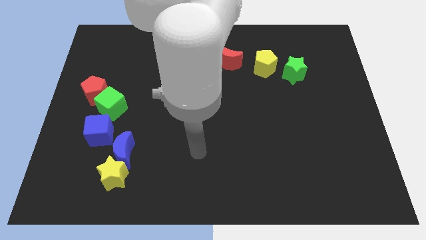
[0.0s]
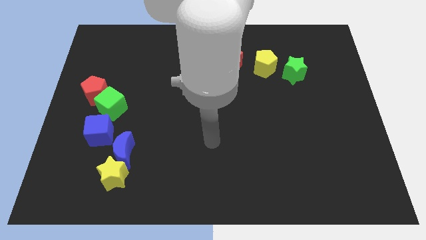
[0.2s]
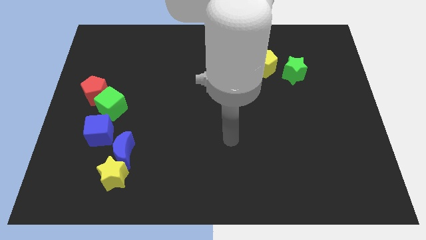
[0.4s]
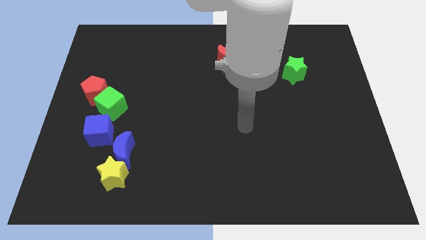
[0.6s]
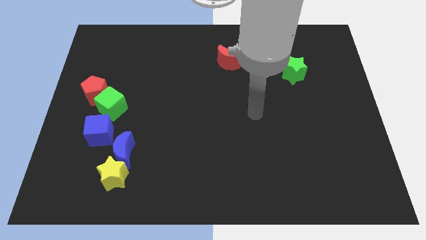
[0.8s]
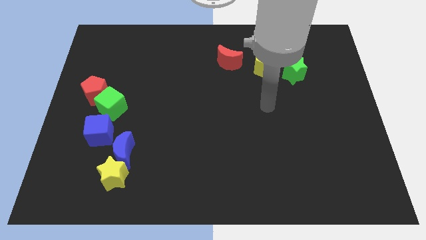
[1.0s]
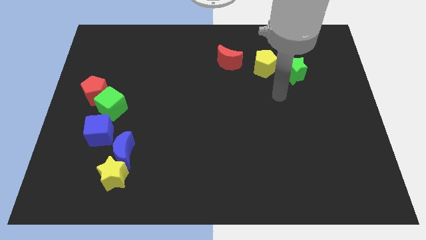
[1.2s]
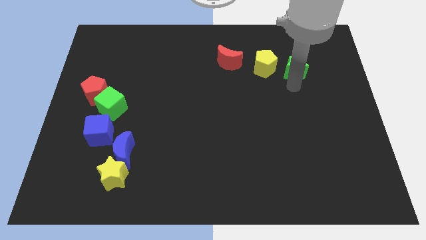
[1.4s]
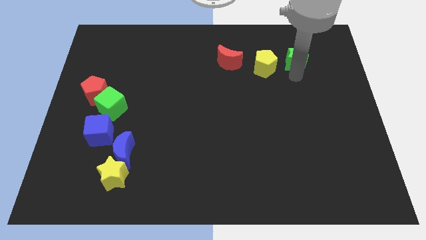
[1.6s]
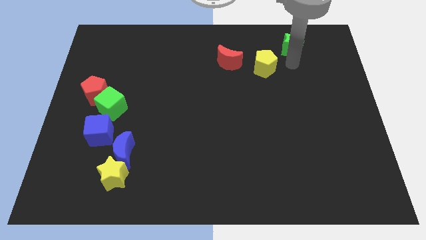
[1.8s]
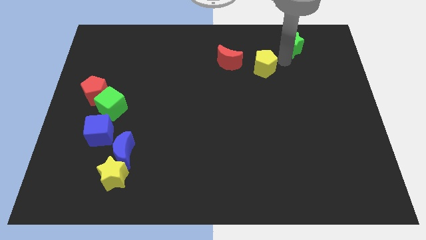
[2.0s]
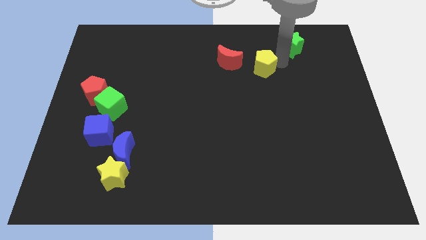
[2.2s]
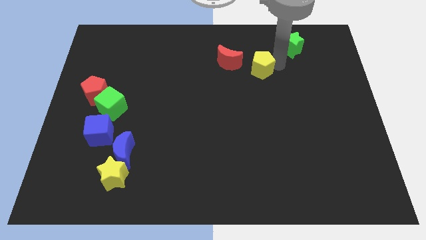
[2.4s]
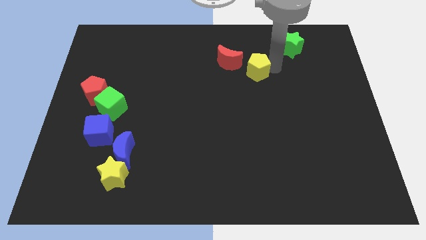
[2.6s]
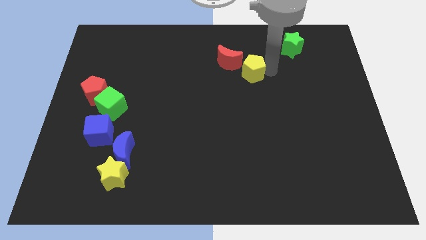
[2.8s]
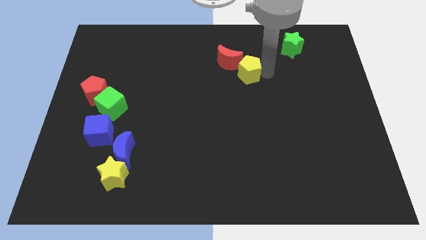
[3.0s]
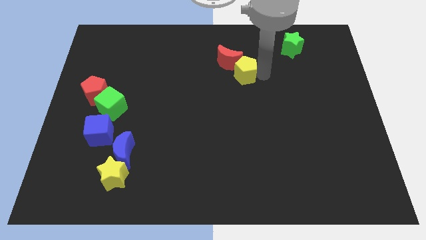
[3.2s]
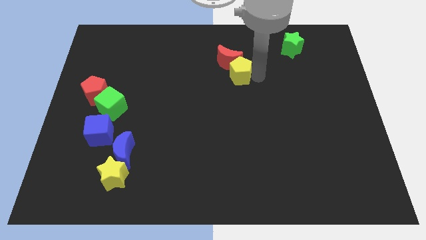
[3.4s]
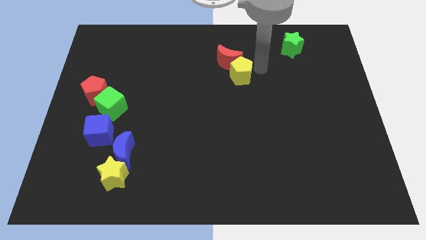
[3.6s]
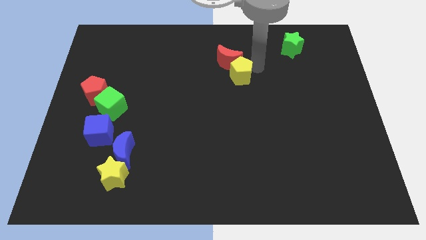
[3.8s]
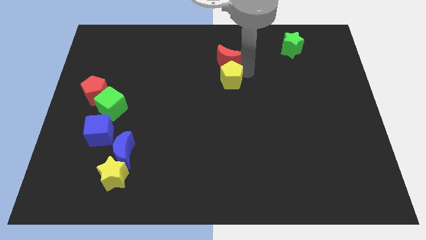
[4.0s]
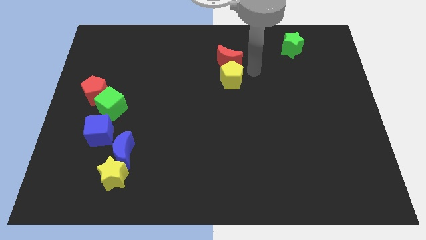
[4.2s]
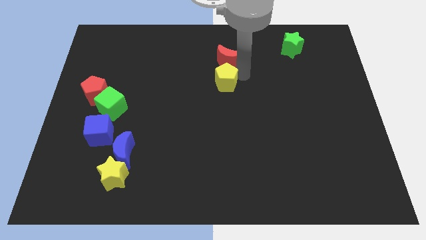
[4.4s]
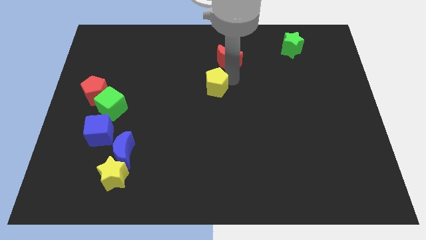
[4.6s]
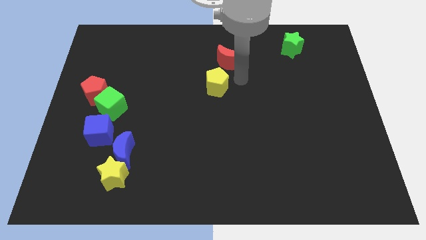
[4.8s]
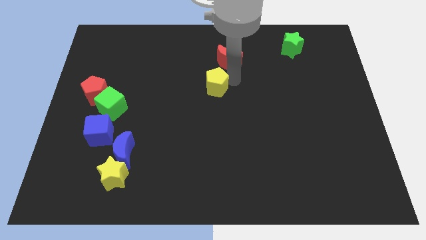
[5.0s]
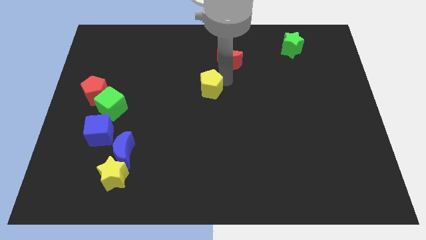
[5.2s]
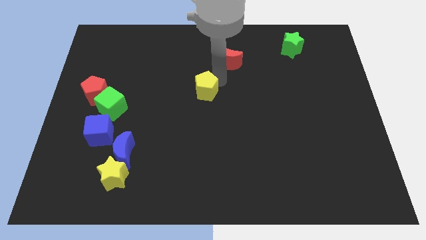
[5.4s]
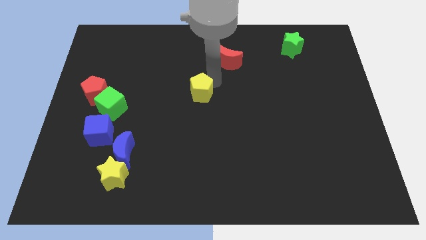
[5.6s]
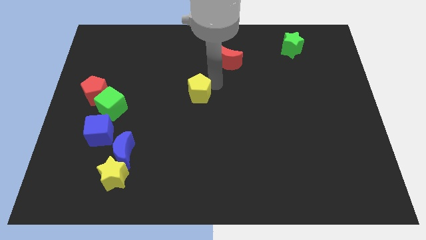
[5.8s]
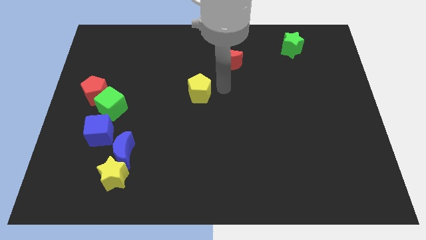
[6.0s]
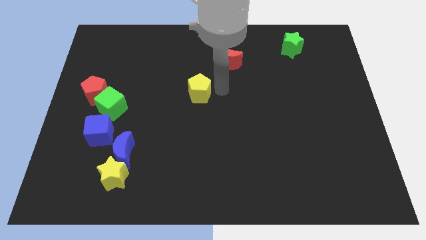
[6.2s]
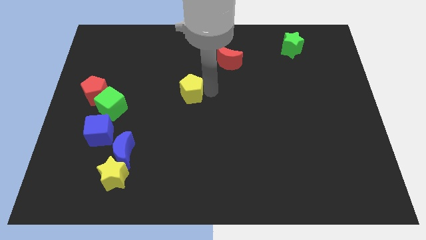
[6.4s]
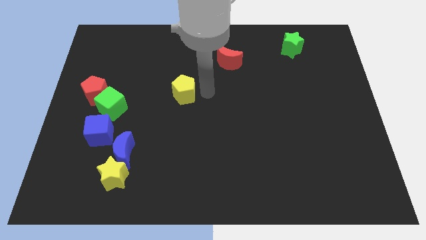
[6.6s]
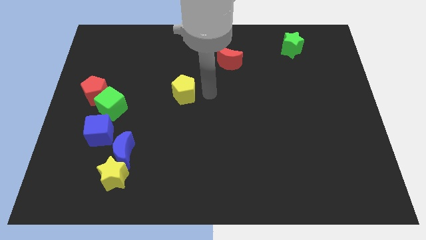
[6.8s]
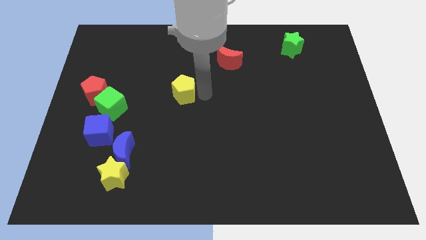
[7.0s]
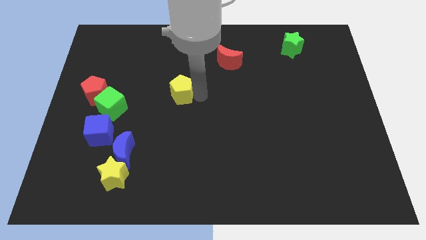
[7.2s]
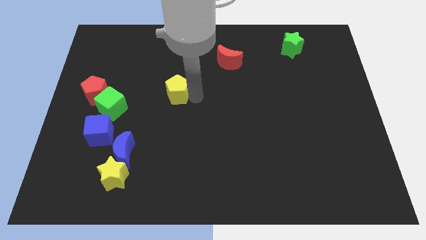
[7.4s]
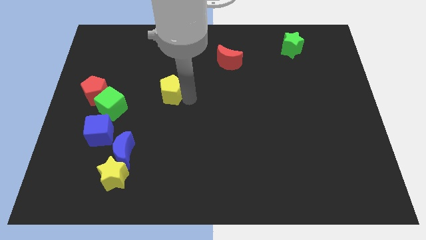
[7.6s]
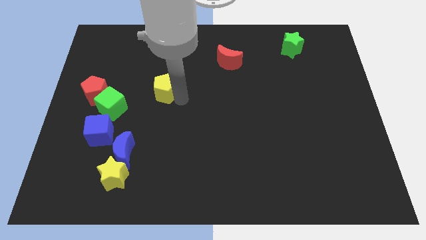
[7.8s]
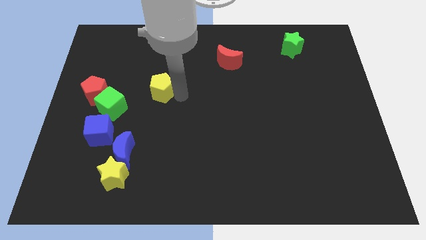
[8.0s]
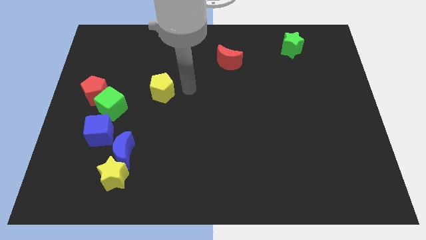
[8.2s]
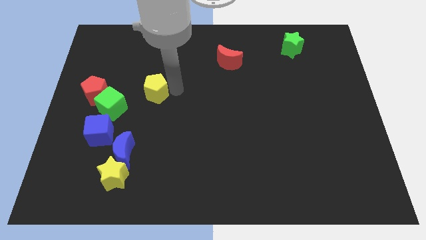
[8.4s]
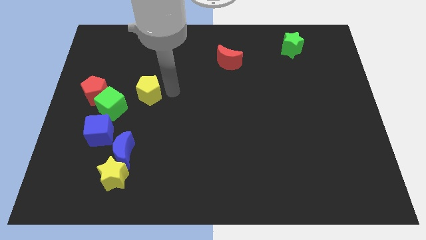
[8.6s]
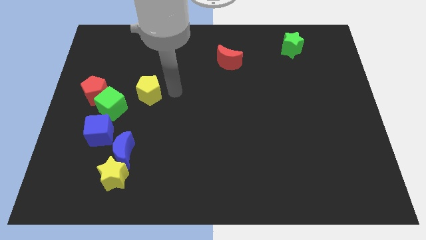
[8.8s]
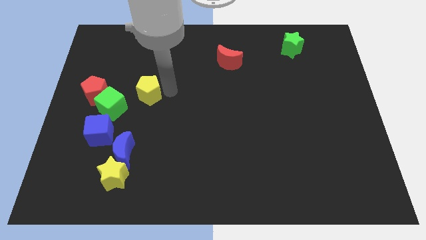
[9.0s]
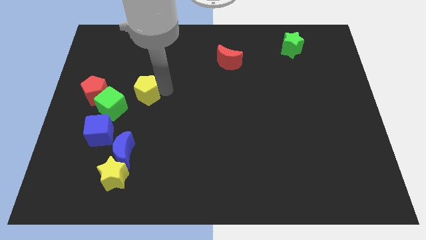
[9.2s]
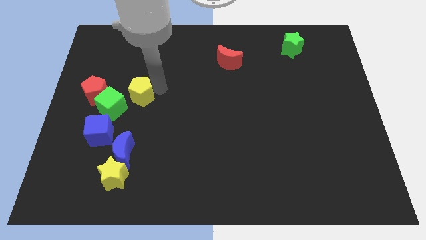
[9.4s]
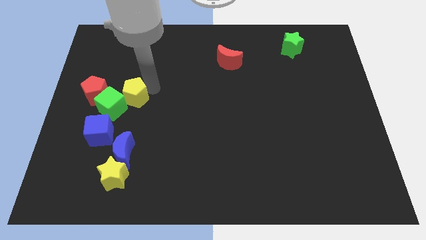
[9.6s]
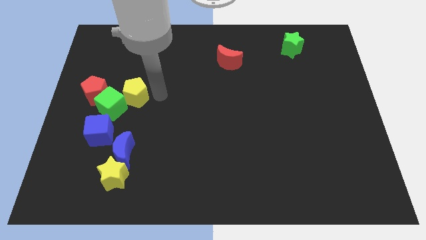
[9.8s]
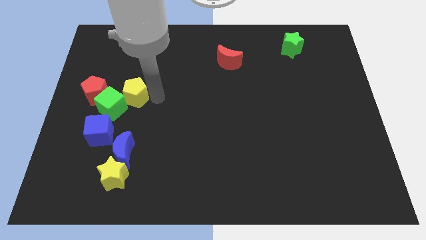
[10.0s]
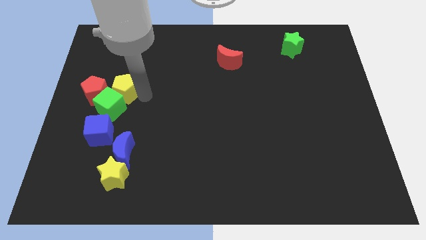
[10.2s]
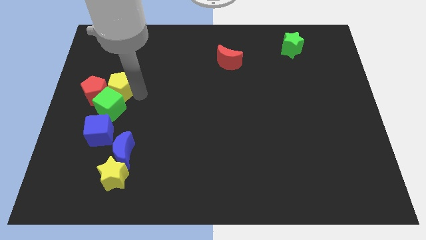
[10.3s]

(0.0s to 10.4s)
put the yellow pentagon to the red pentagon

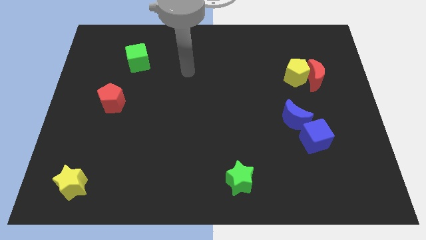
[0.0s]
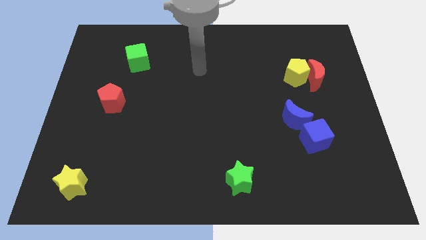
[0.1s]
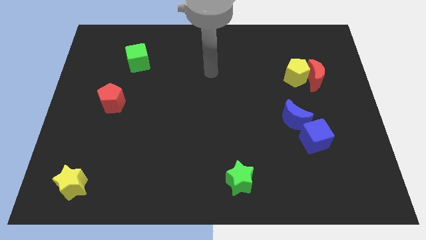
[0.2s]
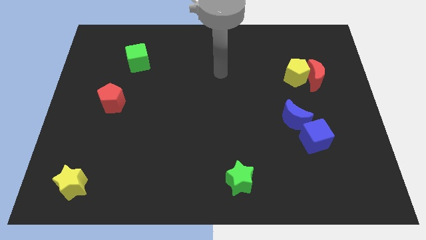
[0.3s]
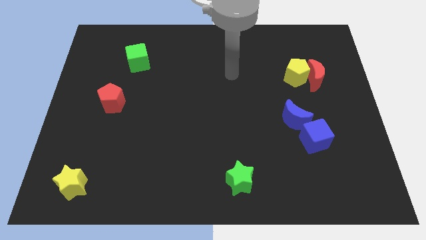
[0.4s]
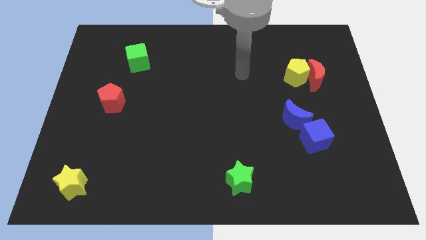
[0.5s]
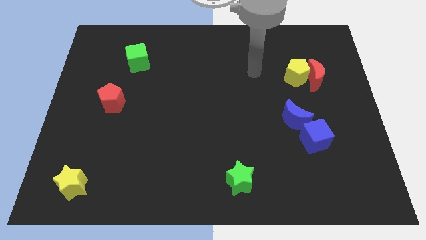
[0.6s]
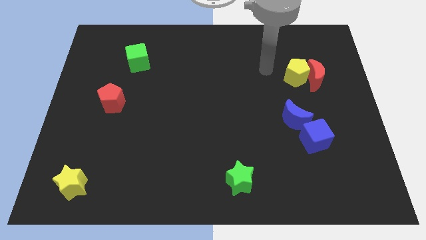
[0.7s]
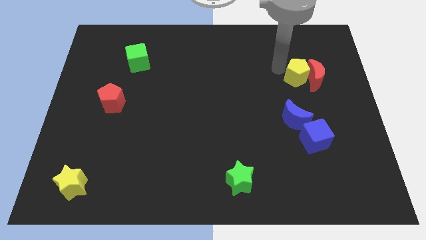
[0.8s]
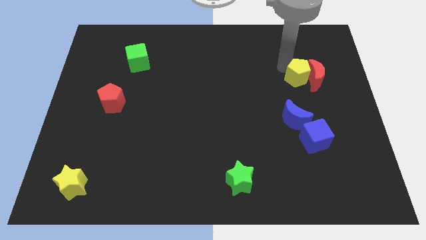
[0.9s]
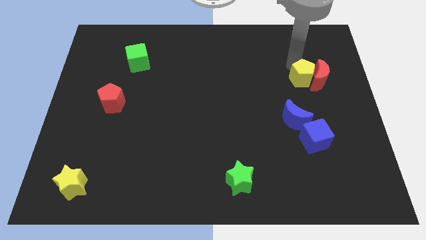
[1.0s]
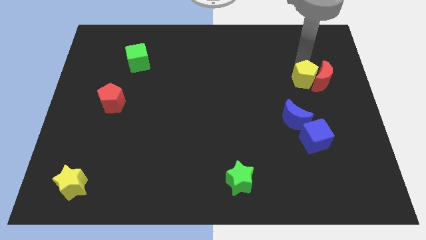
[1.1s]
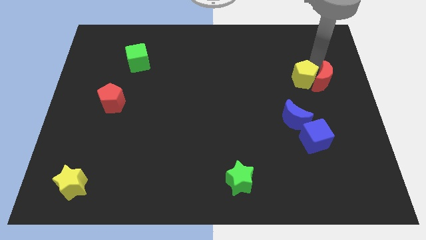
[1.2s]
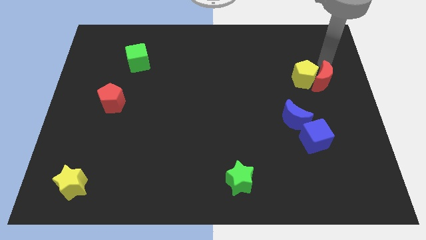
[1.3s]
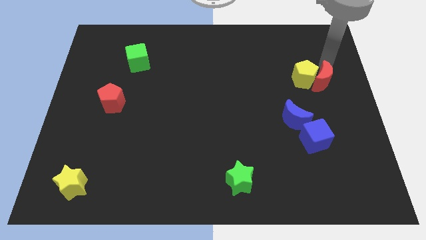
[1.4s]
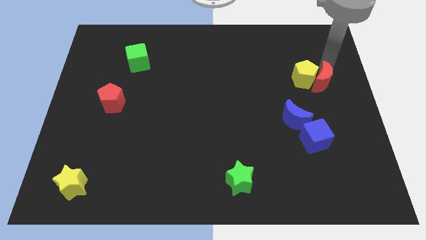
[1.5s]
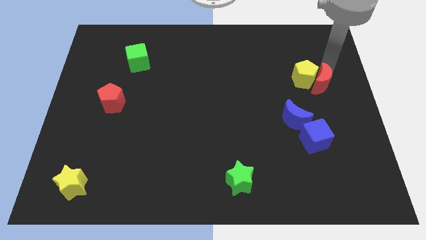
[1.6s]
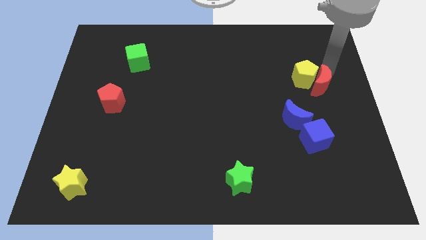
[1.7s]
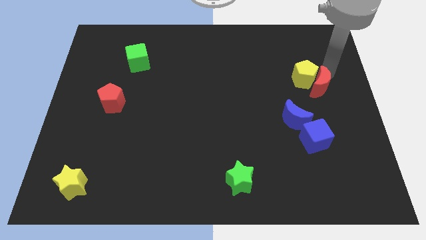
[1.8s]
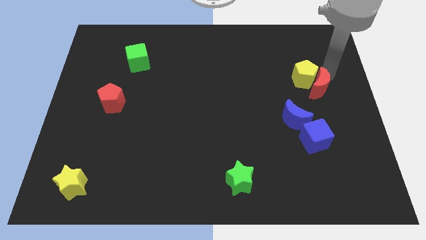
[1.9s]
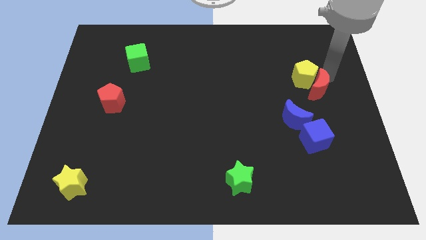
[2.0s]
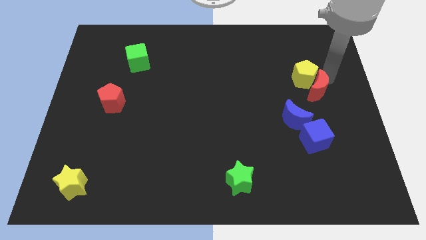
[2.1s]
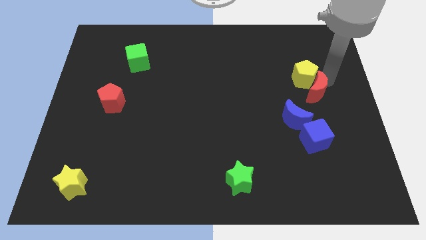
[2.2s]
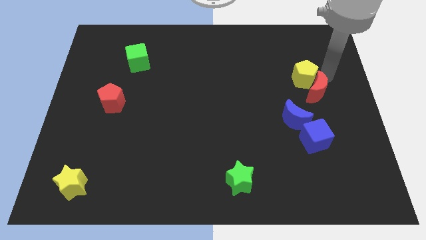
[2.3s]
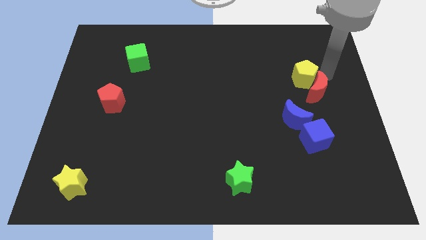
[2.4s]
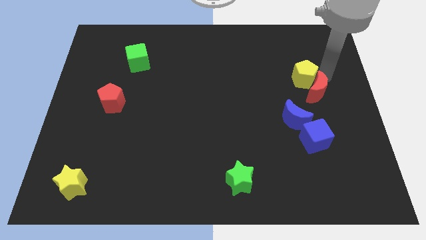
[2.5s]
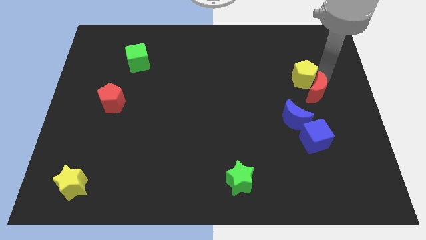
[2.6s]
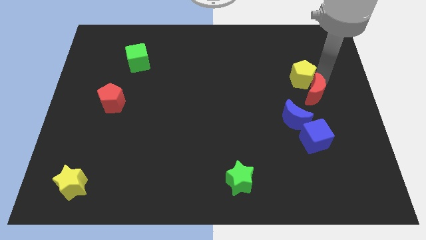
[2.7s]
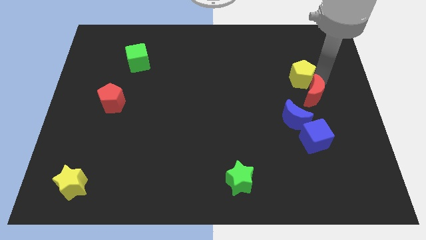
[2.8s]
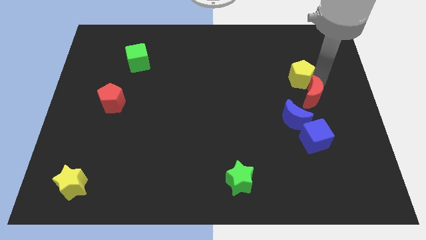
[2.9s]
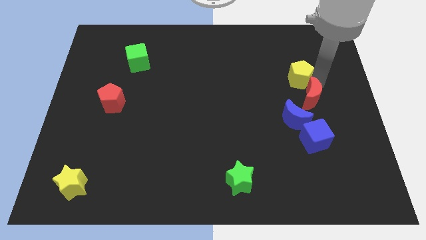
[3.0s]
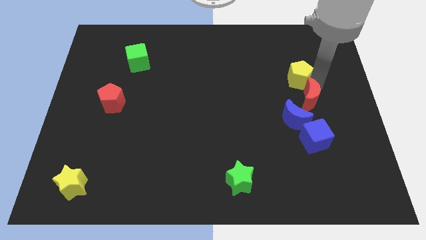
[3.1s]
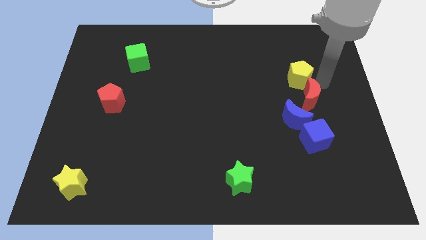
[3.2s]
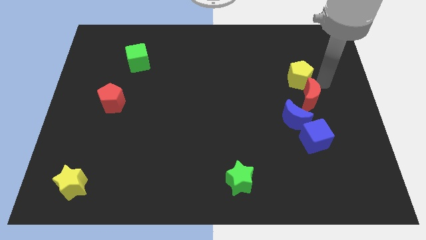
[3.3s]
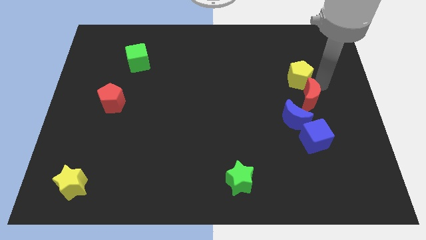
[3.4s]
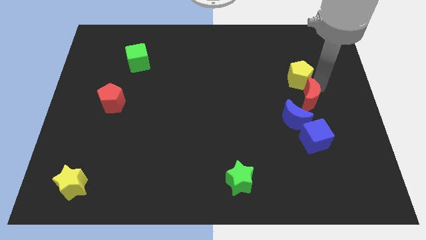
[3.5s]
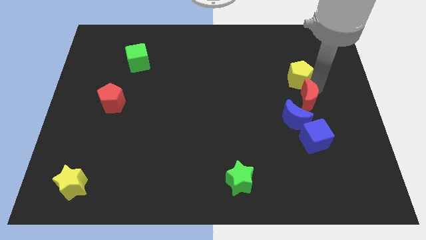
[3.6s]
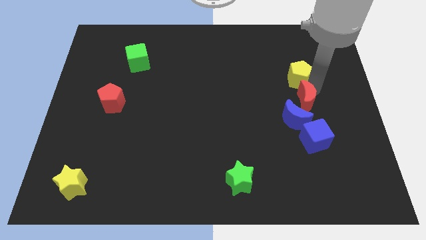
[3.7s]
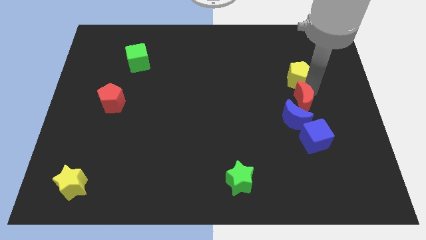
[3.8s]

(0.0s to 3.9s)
put the red moon towards the blue moon
